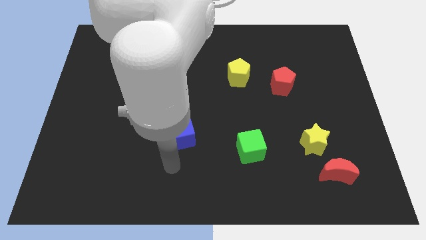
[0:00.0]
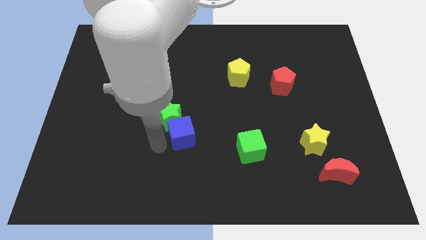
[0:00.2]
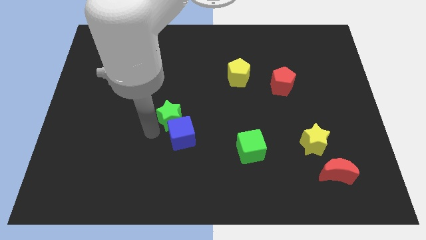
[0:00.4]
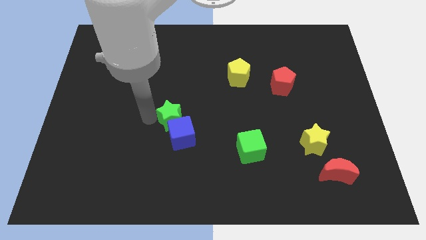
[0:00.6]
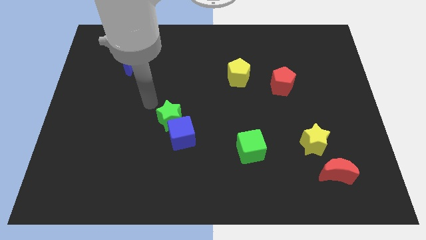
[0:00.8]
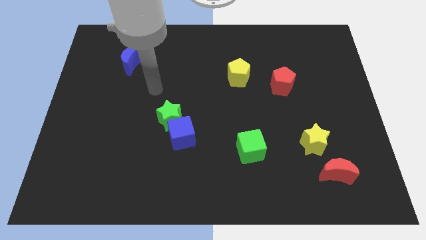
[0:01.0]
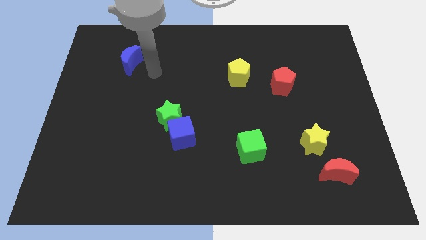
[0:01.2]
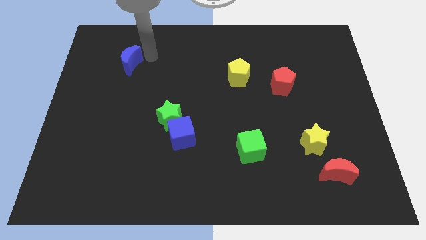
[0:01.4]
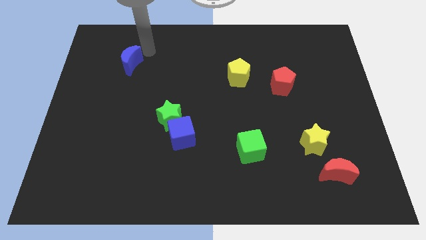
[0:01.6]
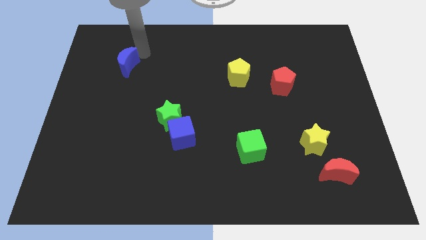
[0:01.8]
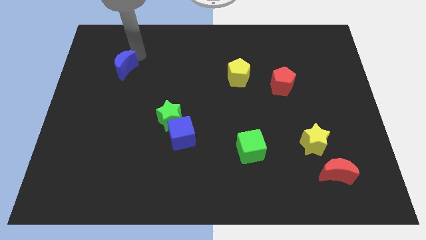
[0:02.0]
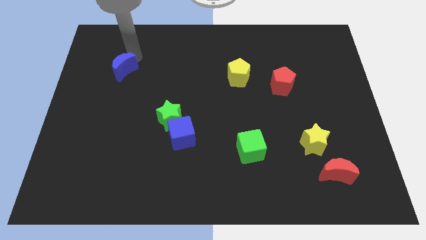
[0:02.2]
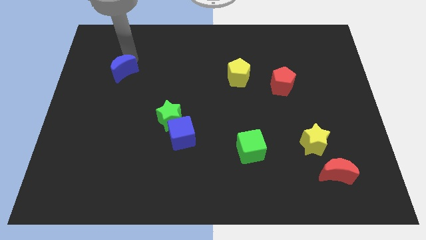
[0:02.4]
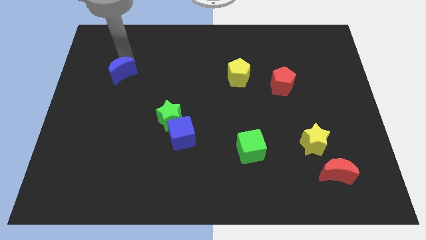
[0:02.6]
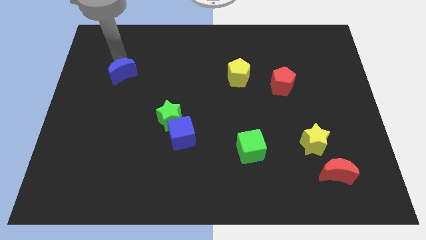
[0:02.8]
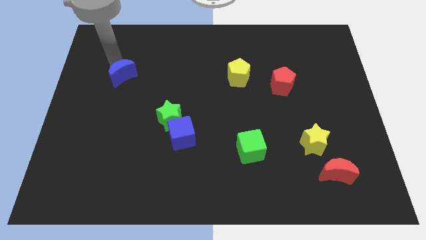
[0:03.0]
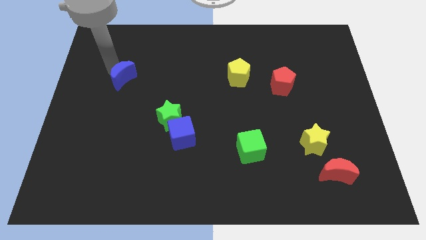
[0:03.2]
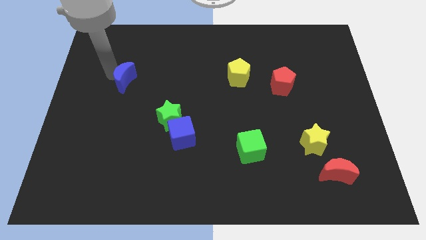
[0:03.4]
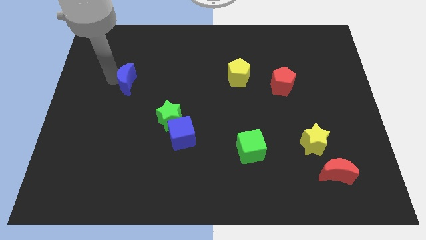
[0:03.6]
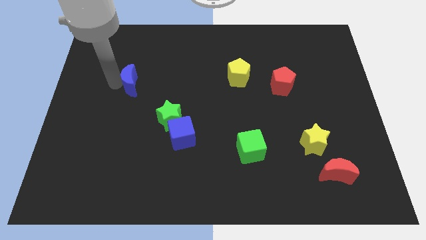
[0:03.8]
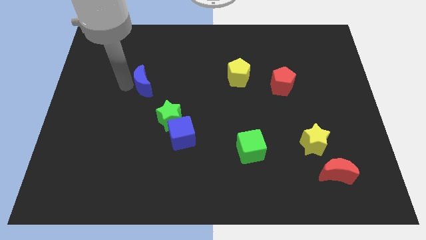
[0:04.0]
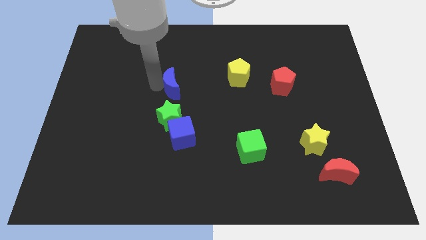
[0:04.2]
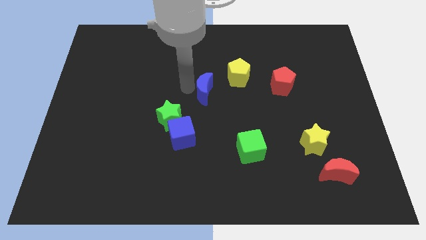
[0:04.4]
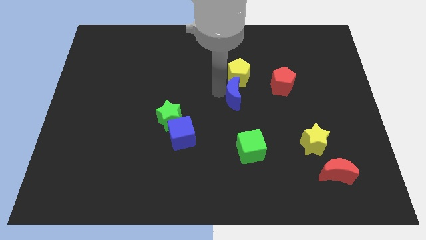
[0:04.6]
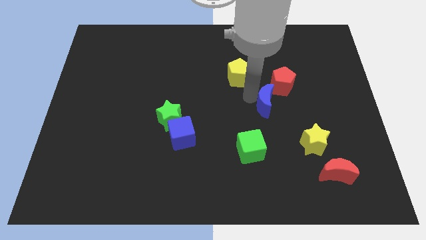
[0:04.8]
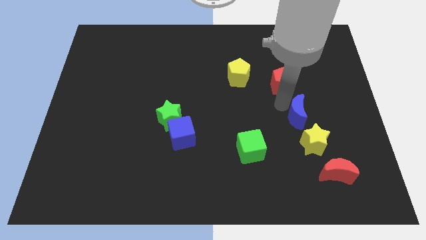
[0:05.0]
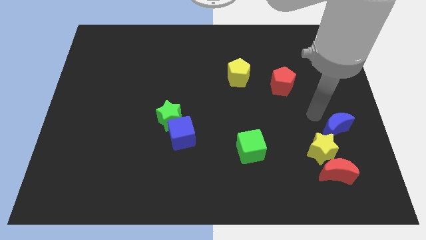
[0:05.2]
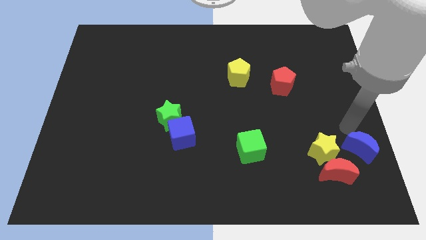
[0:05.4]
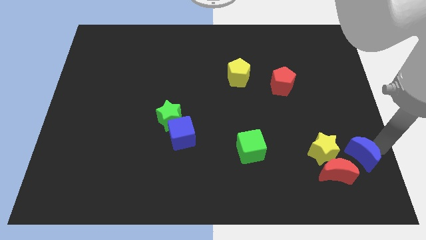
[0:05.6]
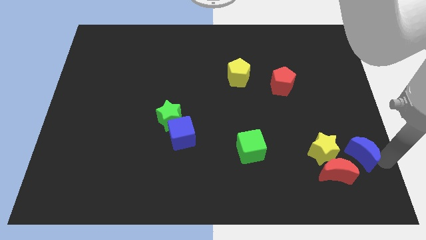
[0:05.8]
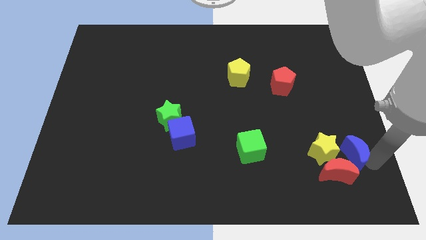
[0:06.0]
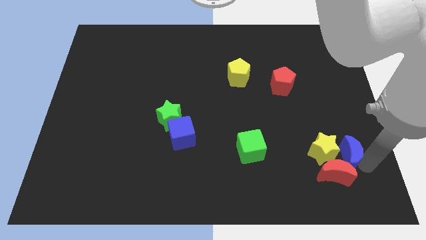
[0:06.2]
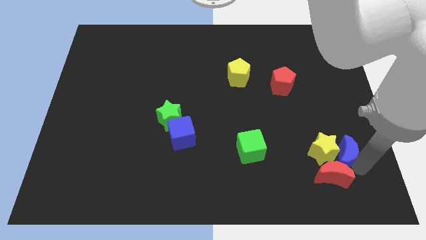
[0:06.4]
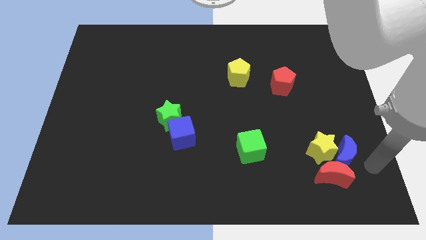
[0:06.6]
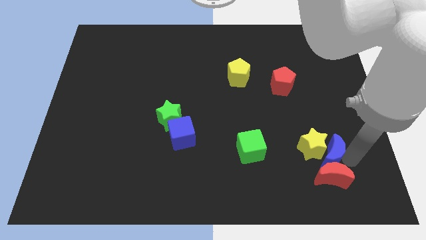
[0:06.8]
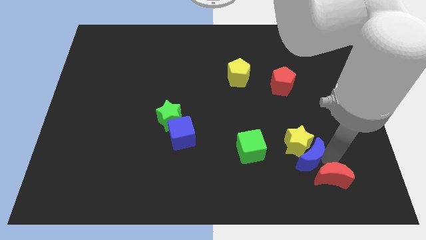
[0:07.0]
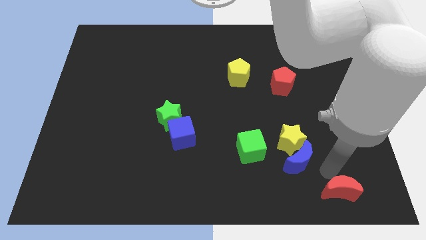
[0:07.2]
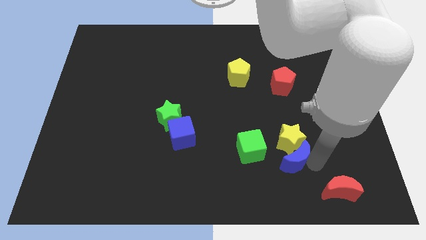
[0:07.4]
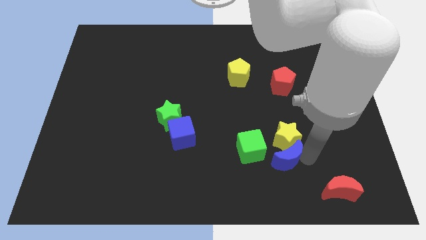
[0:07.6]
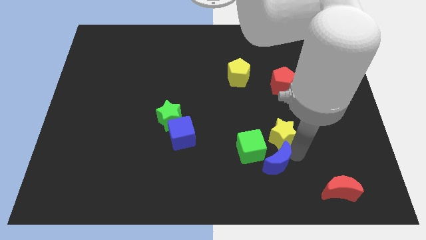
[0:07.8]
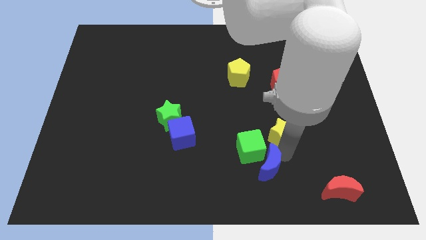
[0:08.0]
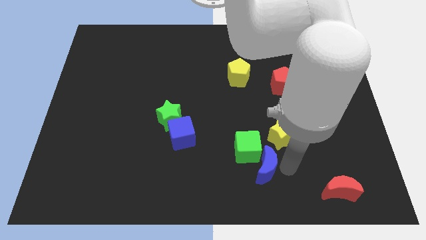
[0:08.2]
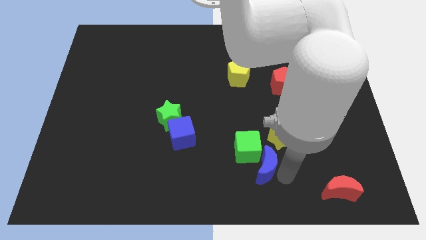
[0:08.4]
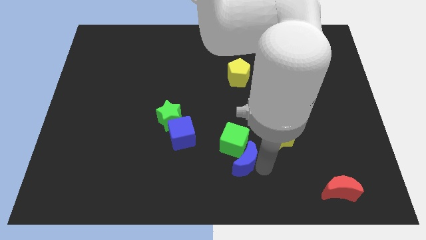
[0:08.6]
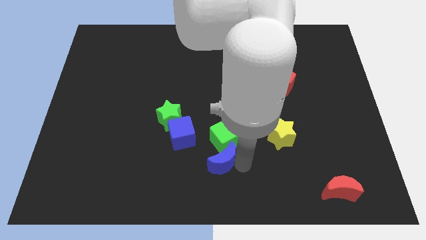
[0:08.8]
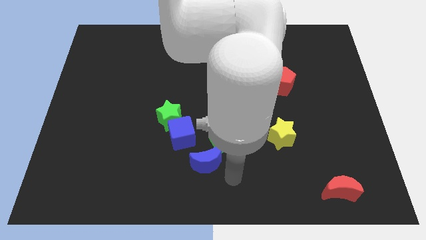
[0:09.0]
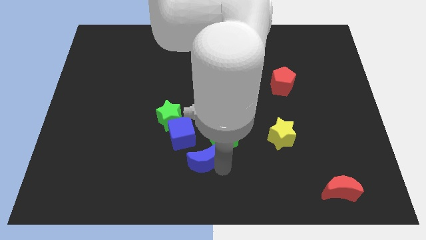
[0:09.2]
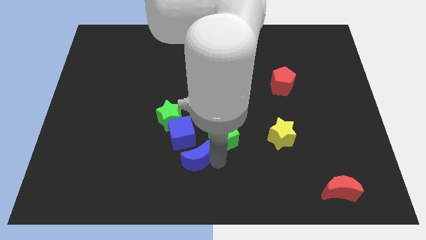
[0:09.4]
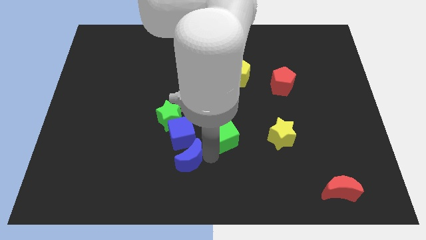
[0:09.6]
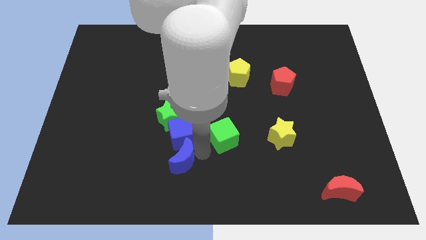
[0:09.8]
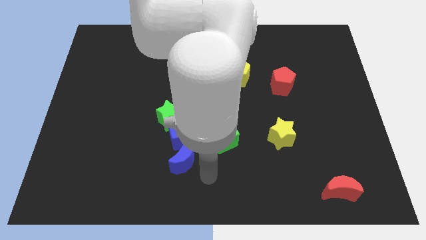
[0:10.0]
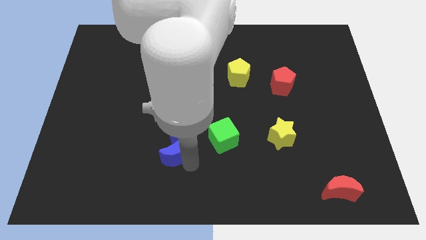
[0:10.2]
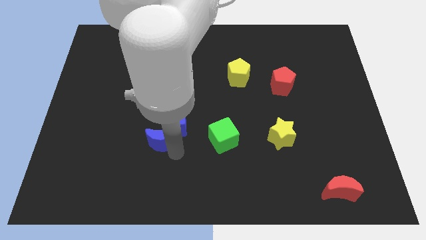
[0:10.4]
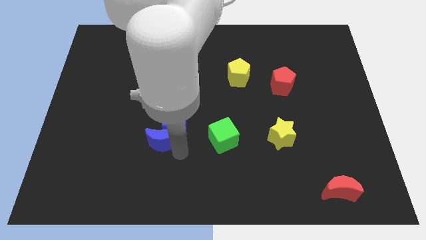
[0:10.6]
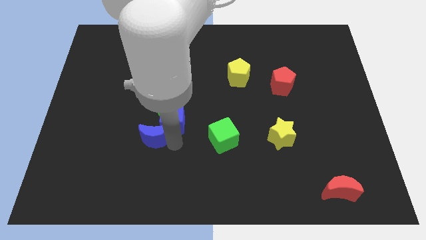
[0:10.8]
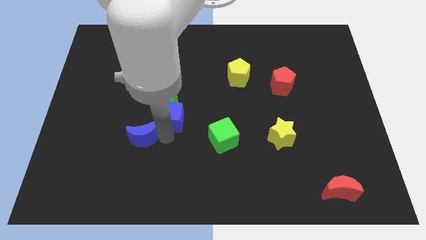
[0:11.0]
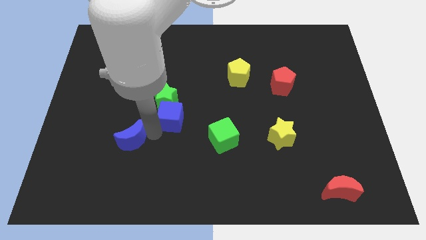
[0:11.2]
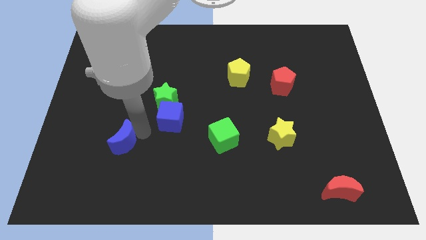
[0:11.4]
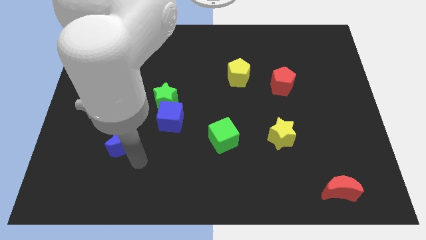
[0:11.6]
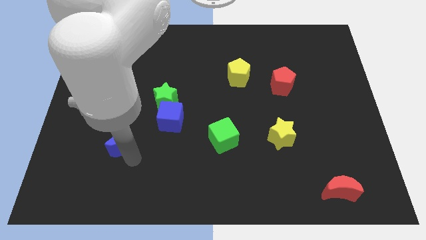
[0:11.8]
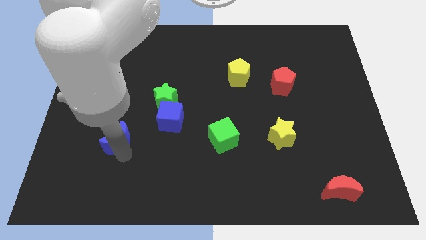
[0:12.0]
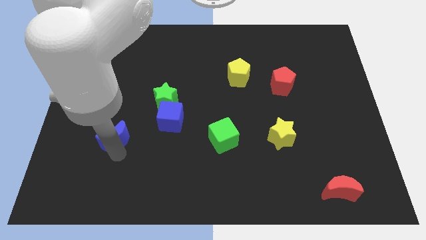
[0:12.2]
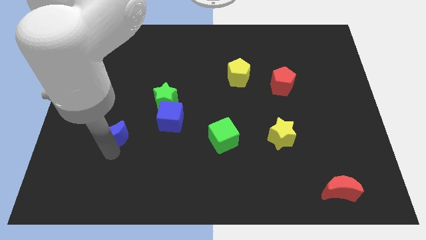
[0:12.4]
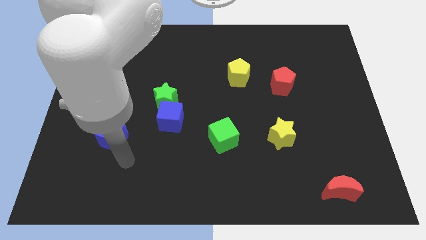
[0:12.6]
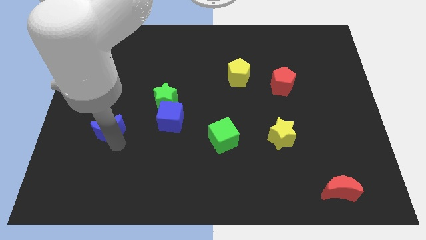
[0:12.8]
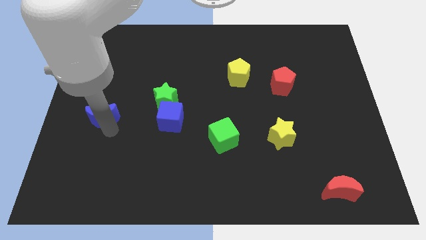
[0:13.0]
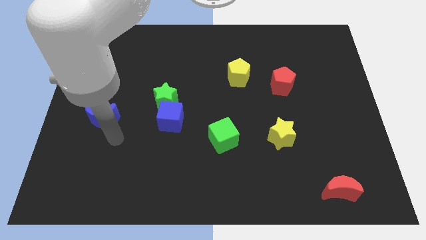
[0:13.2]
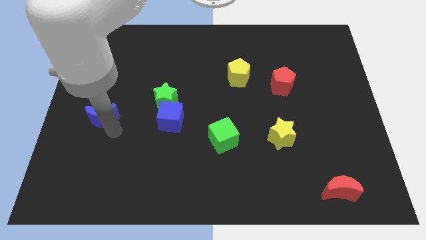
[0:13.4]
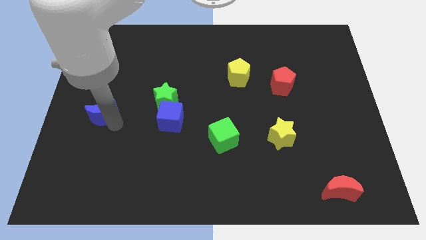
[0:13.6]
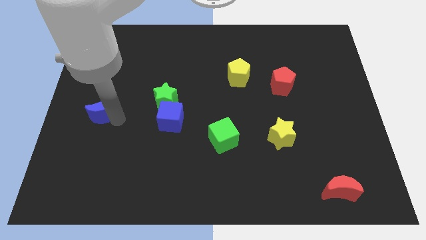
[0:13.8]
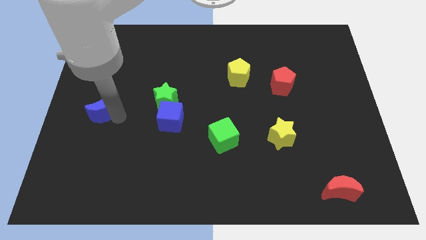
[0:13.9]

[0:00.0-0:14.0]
slide the blue moon to the center left
